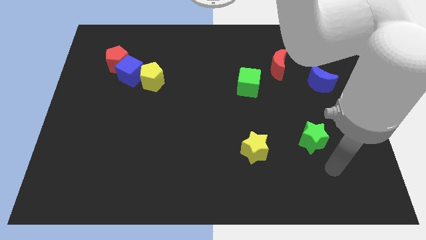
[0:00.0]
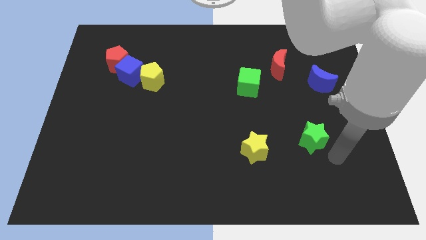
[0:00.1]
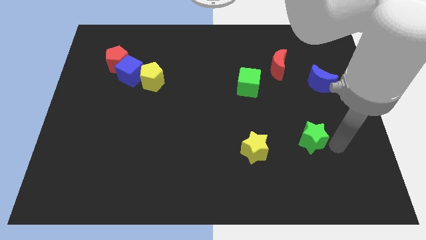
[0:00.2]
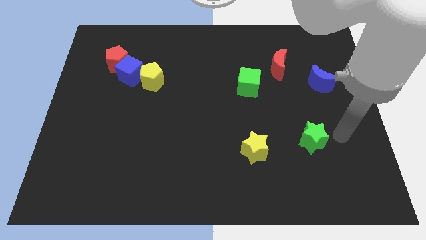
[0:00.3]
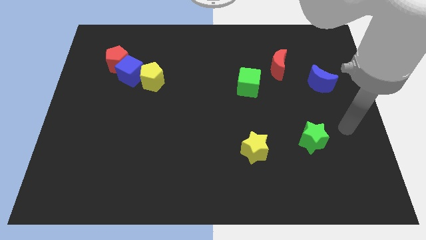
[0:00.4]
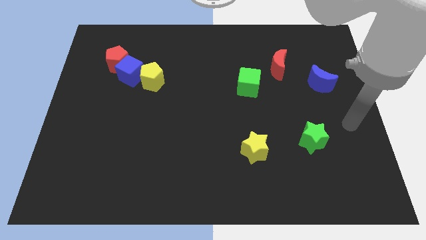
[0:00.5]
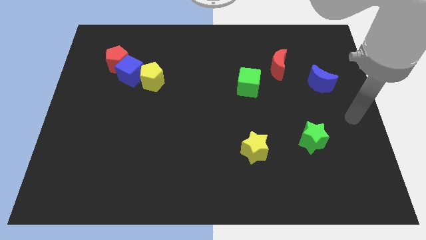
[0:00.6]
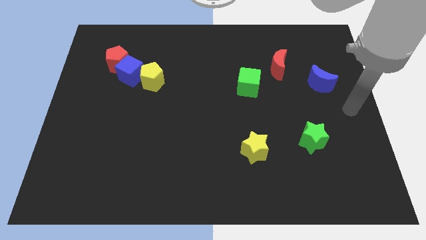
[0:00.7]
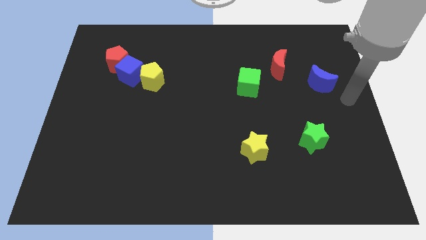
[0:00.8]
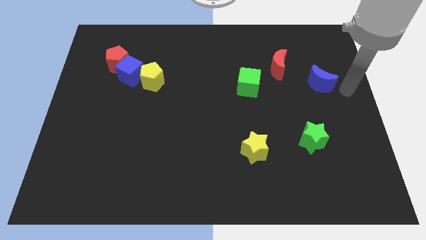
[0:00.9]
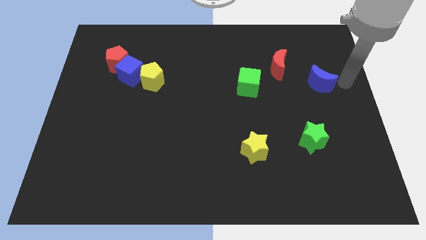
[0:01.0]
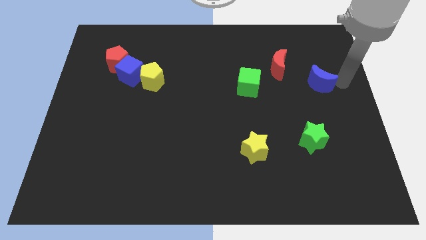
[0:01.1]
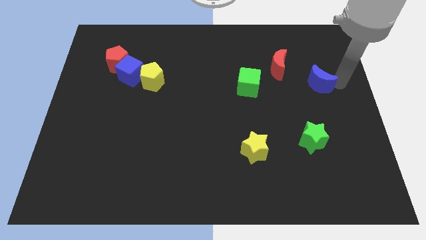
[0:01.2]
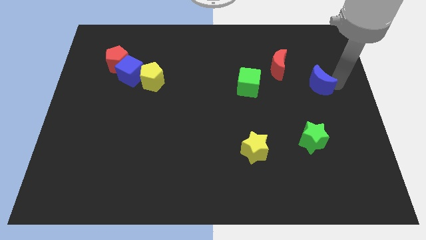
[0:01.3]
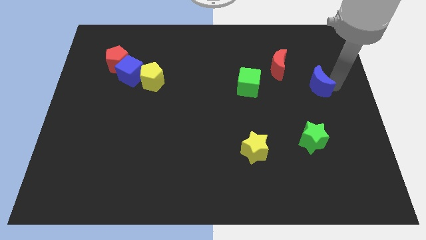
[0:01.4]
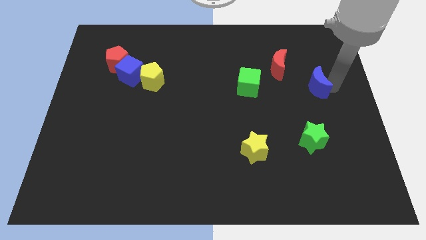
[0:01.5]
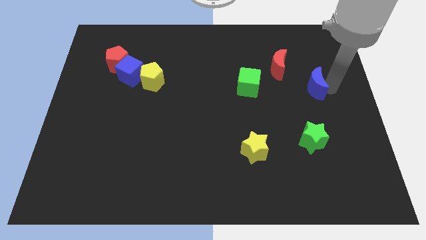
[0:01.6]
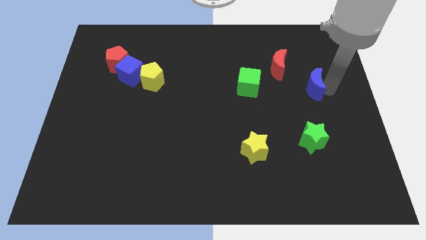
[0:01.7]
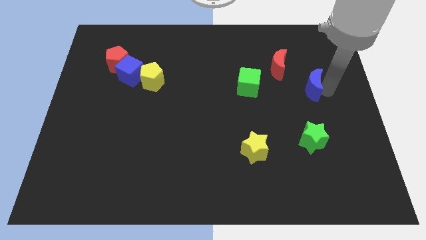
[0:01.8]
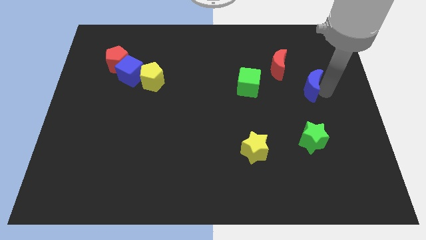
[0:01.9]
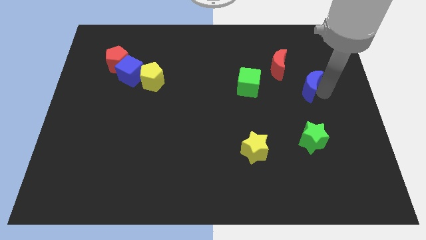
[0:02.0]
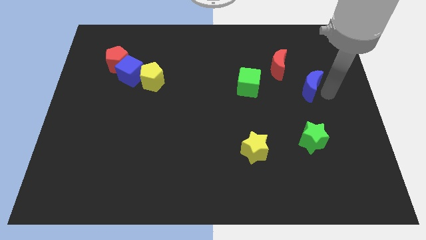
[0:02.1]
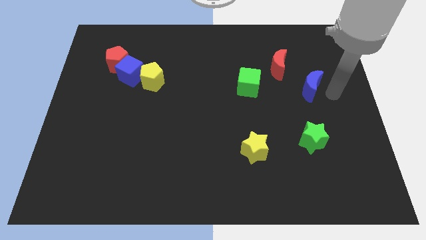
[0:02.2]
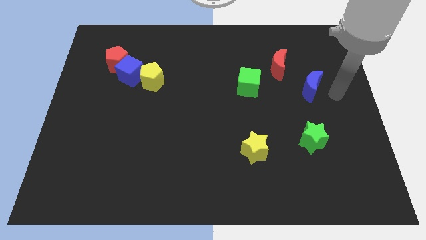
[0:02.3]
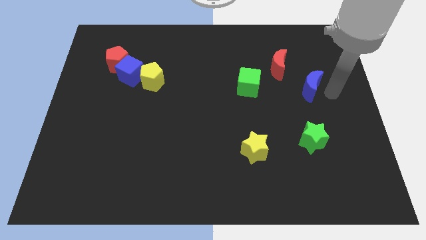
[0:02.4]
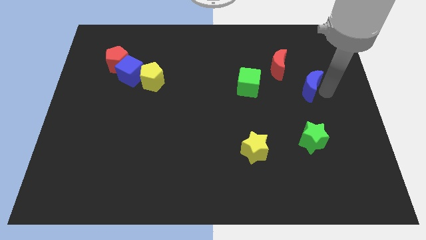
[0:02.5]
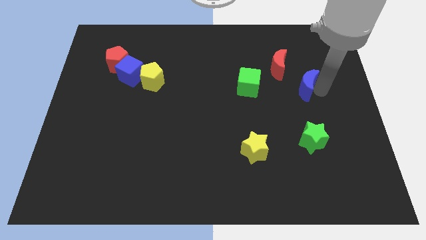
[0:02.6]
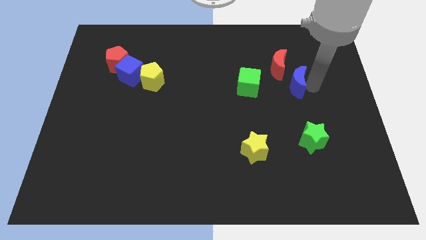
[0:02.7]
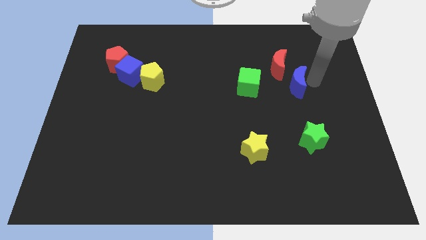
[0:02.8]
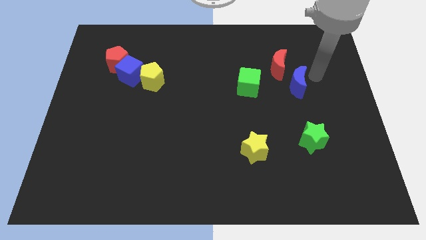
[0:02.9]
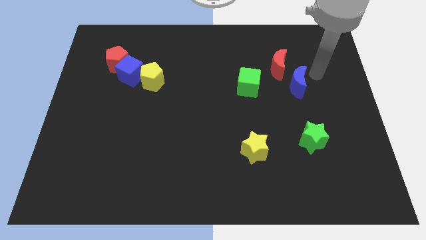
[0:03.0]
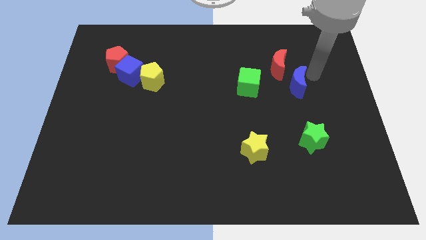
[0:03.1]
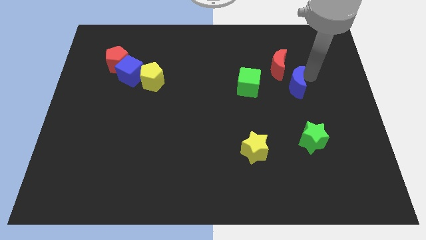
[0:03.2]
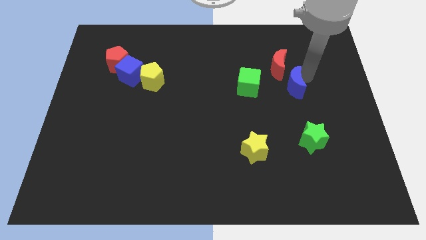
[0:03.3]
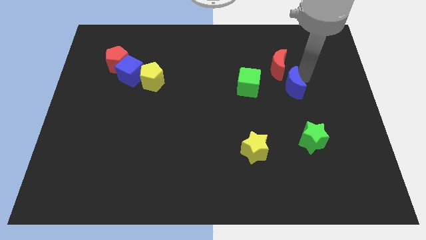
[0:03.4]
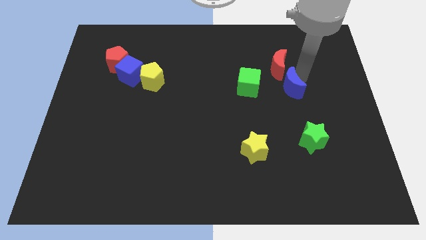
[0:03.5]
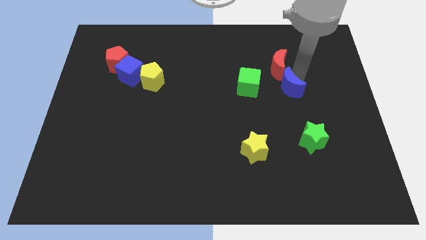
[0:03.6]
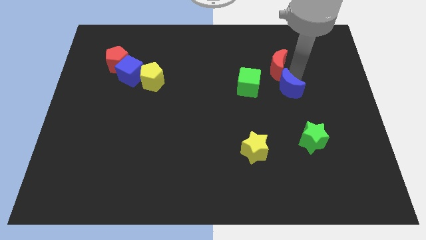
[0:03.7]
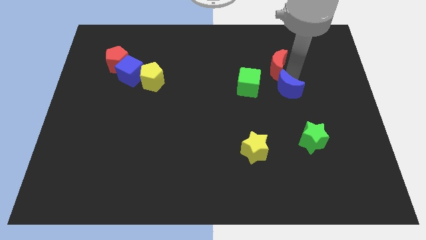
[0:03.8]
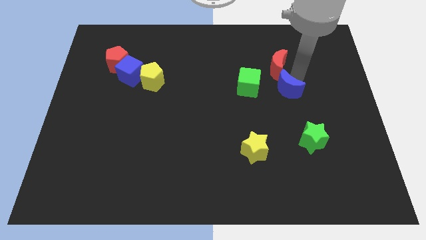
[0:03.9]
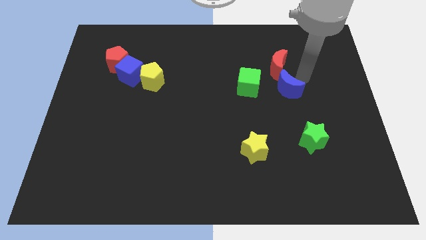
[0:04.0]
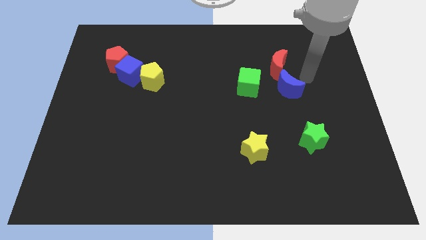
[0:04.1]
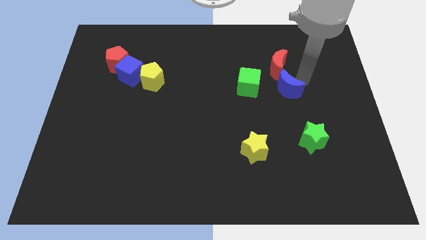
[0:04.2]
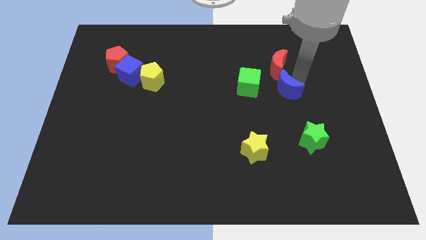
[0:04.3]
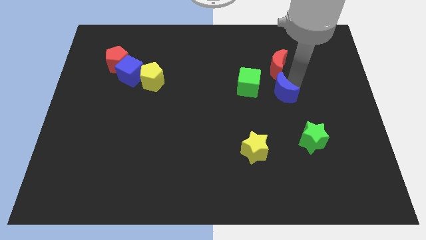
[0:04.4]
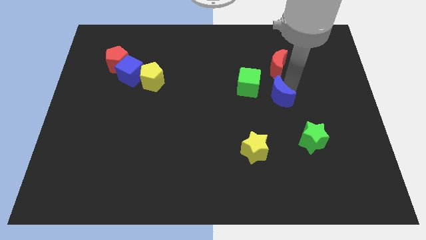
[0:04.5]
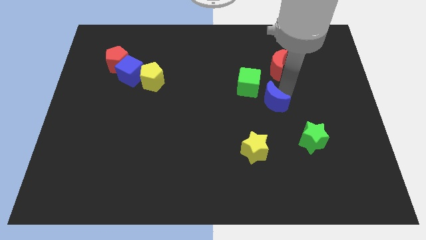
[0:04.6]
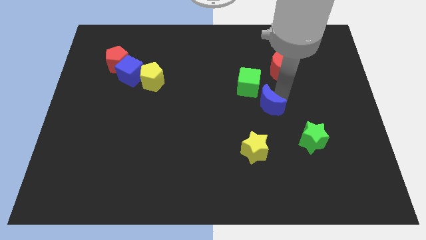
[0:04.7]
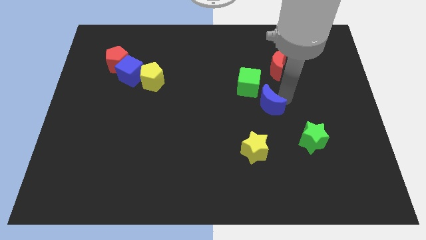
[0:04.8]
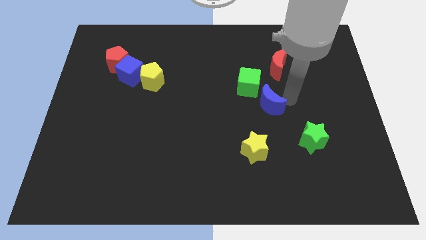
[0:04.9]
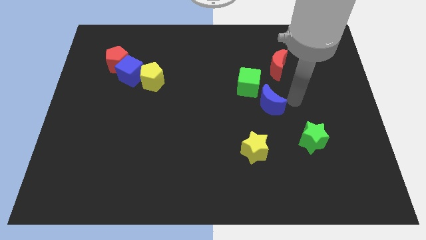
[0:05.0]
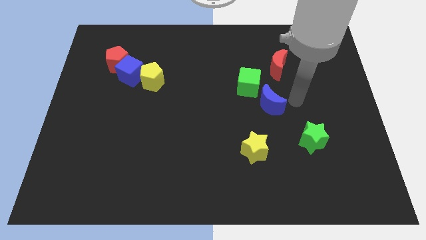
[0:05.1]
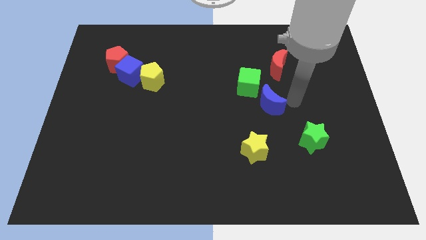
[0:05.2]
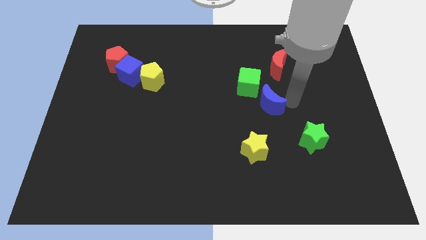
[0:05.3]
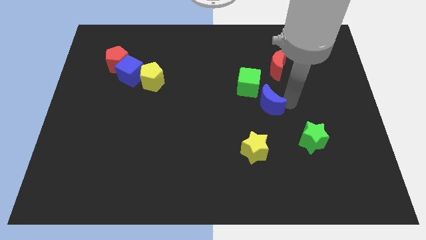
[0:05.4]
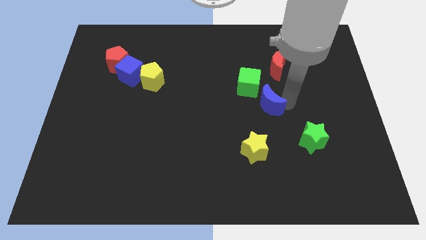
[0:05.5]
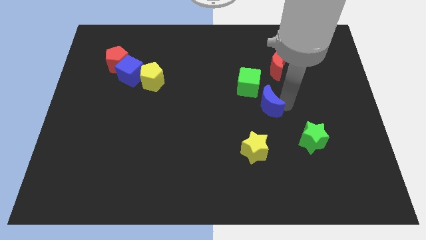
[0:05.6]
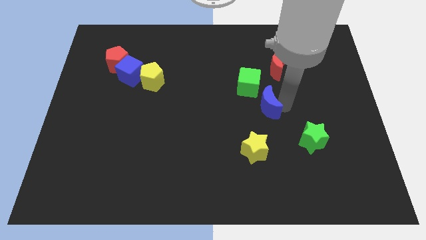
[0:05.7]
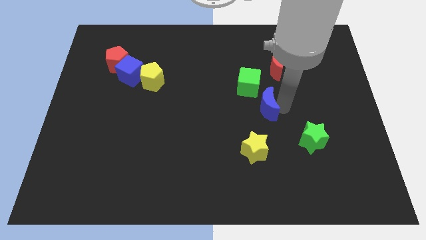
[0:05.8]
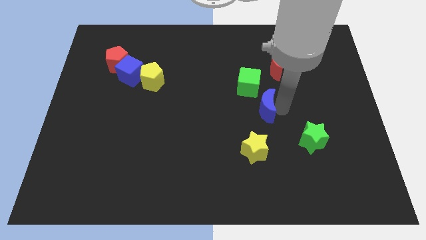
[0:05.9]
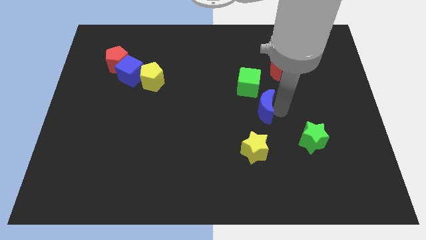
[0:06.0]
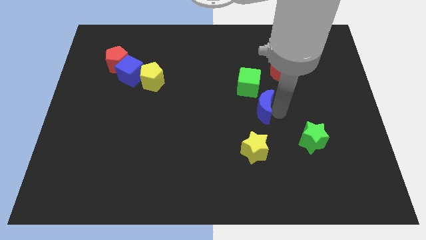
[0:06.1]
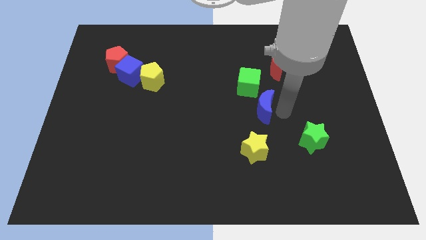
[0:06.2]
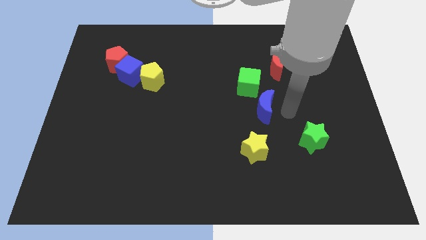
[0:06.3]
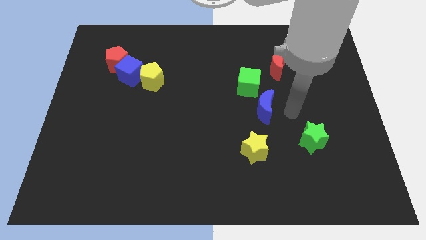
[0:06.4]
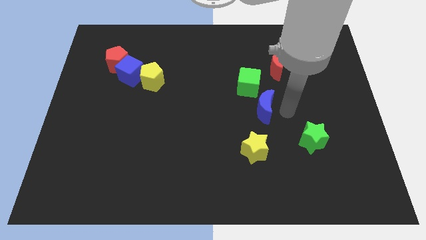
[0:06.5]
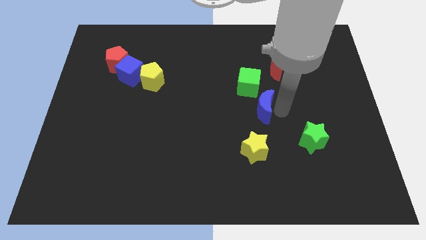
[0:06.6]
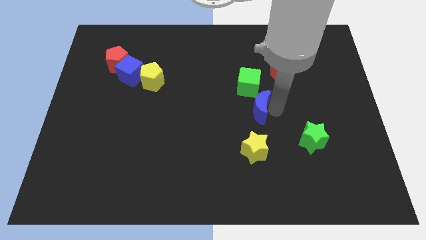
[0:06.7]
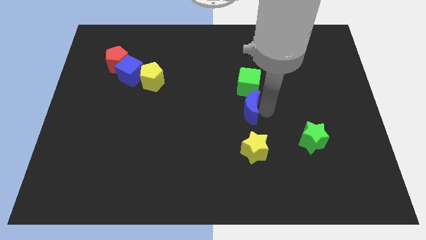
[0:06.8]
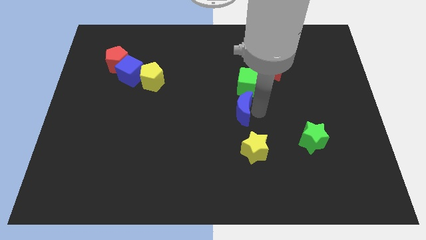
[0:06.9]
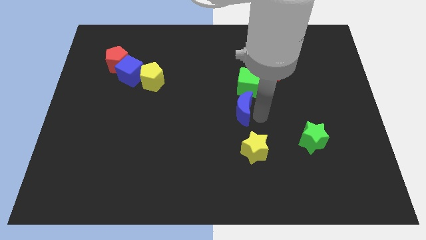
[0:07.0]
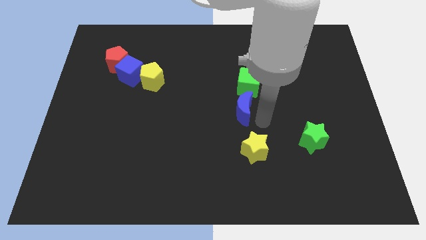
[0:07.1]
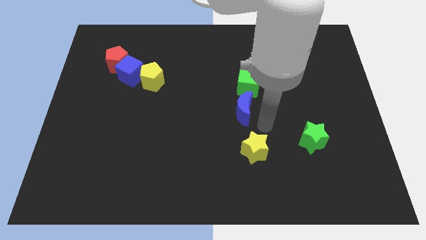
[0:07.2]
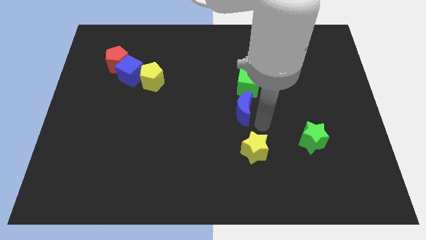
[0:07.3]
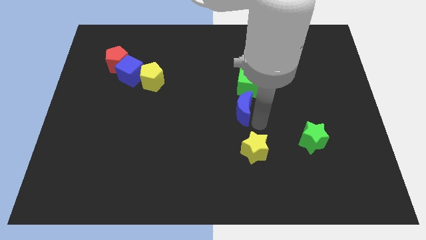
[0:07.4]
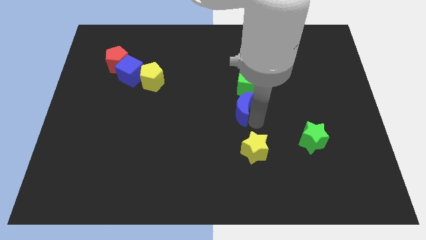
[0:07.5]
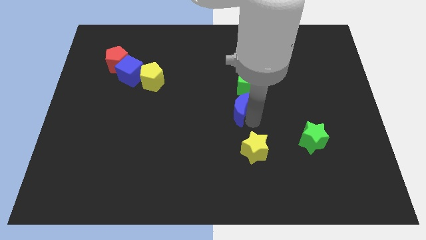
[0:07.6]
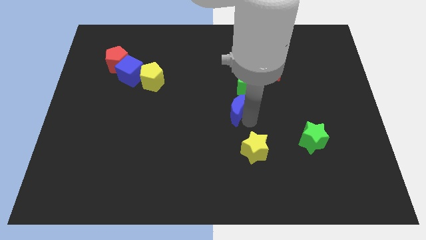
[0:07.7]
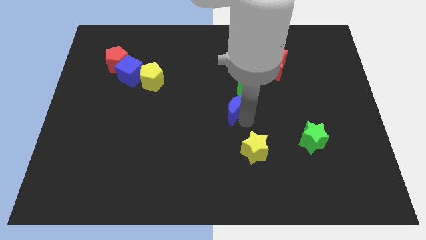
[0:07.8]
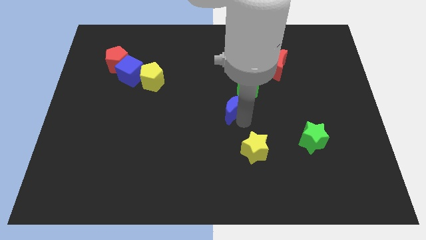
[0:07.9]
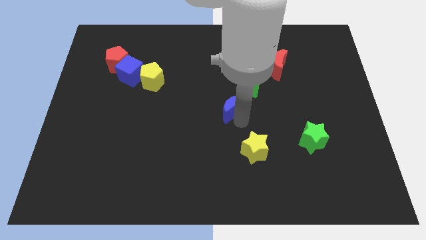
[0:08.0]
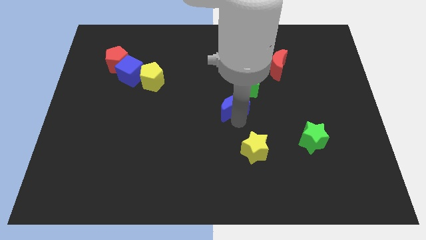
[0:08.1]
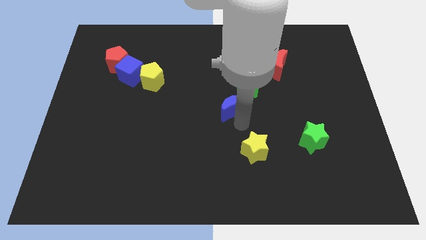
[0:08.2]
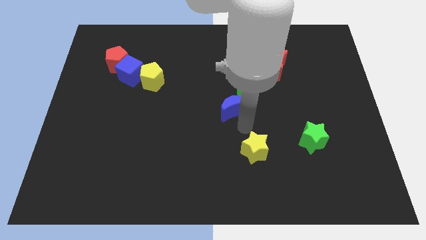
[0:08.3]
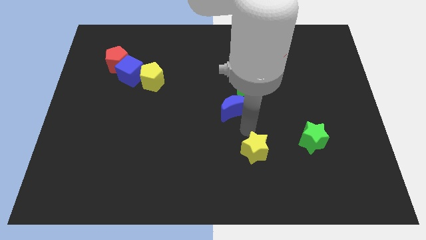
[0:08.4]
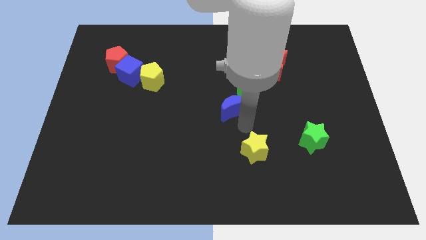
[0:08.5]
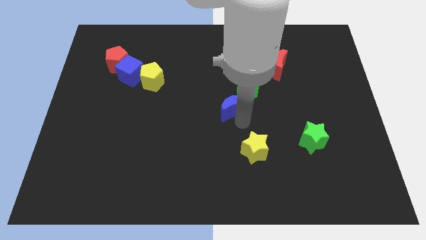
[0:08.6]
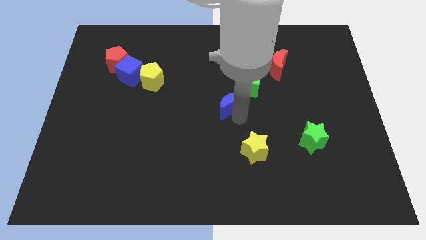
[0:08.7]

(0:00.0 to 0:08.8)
move the blue moon left
